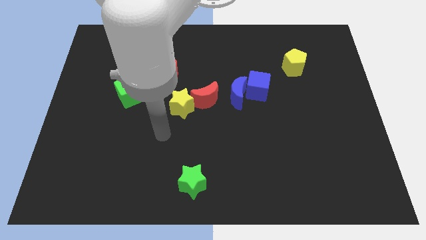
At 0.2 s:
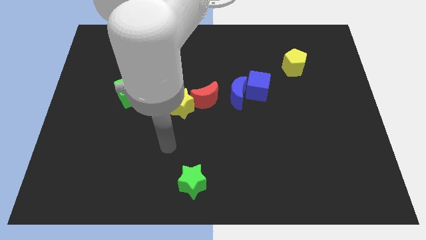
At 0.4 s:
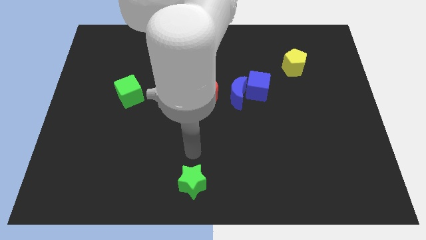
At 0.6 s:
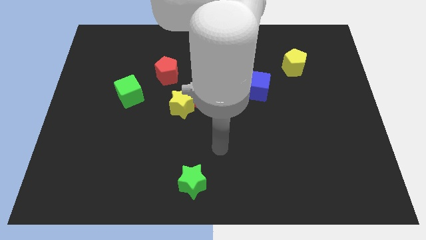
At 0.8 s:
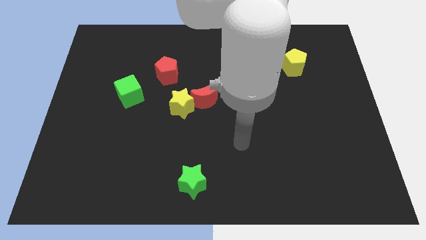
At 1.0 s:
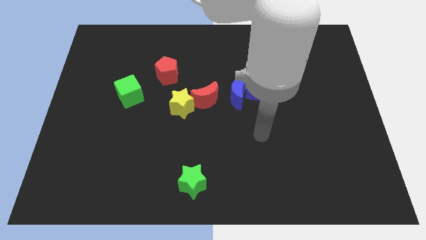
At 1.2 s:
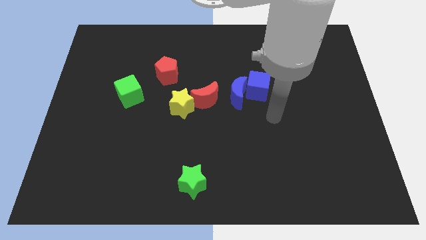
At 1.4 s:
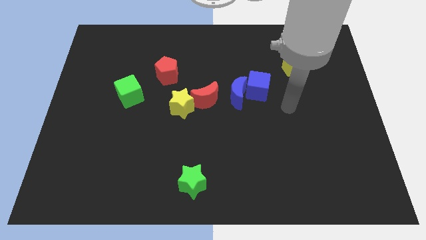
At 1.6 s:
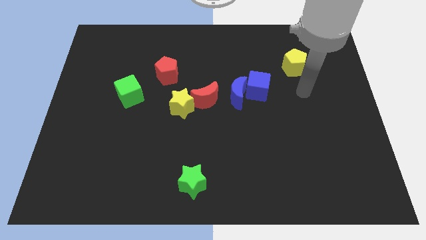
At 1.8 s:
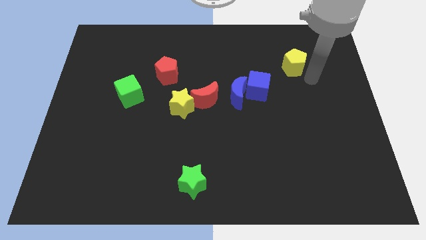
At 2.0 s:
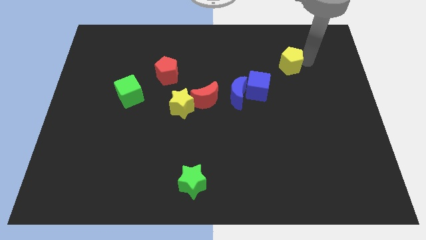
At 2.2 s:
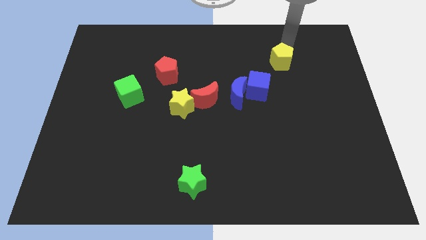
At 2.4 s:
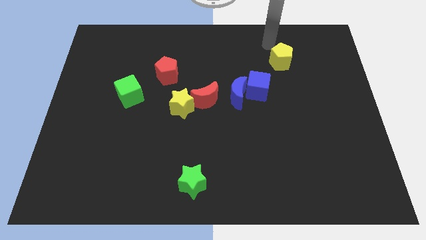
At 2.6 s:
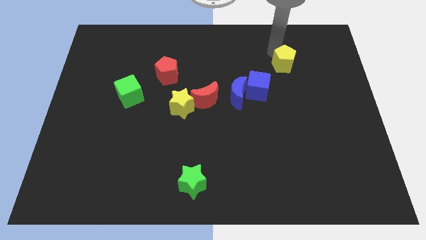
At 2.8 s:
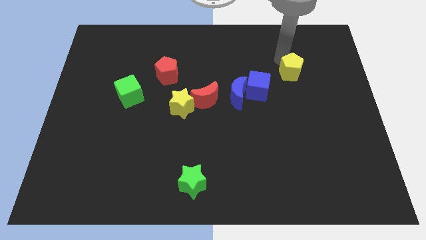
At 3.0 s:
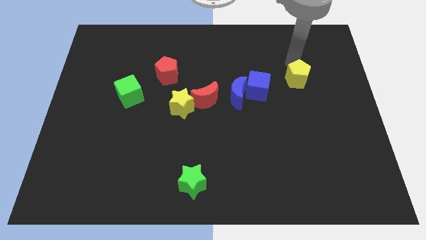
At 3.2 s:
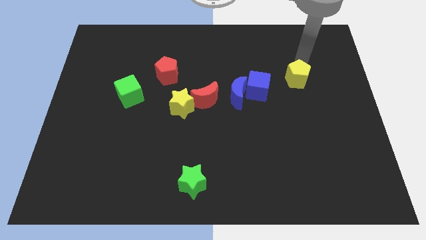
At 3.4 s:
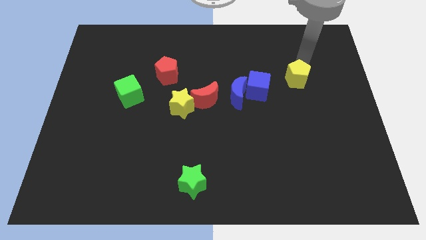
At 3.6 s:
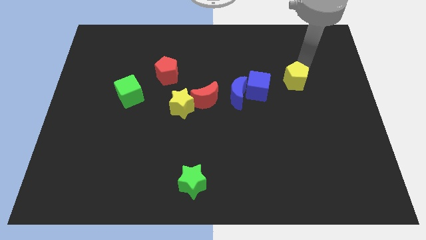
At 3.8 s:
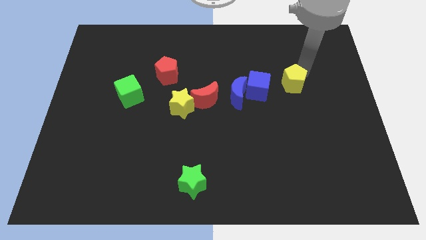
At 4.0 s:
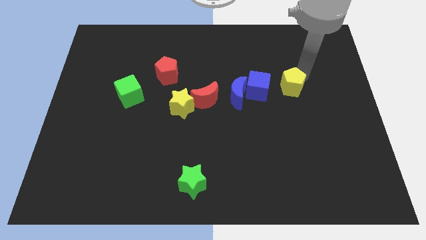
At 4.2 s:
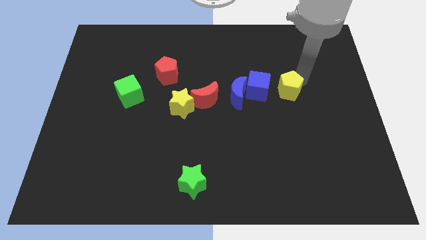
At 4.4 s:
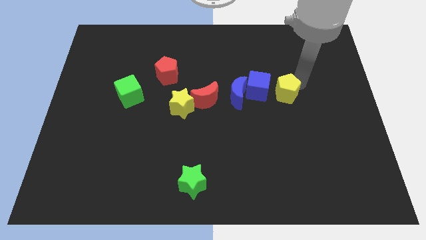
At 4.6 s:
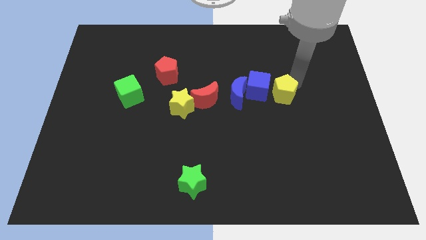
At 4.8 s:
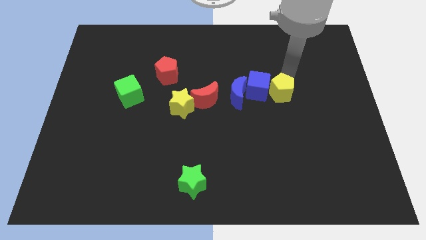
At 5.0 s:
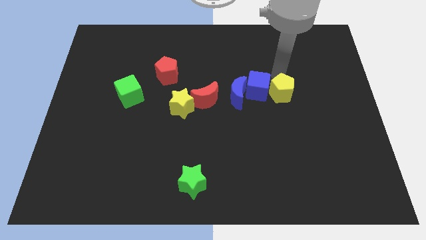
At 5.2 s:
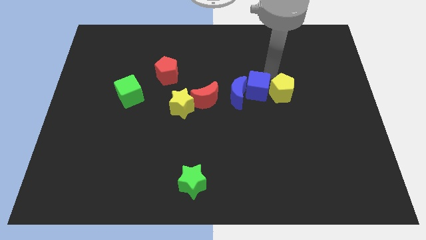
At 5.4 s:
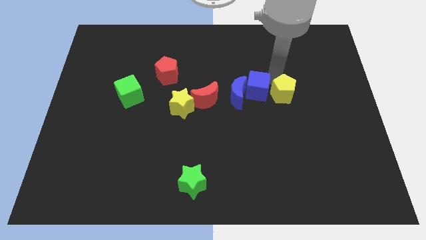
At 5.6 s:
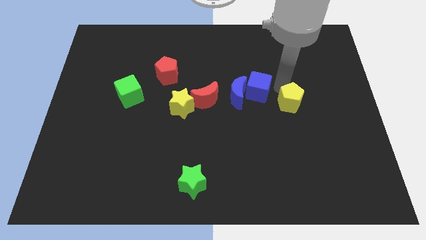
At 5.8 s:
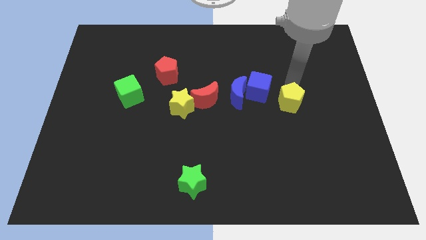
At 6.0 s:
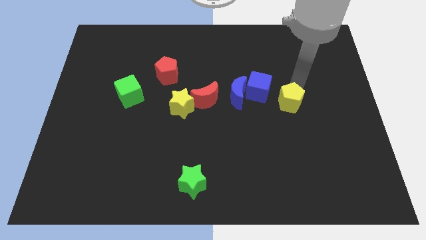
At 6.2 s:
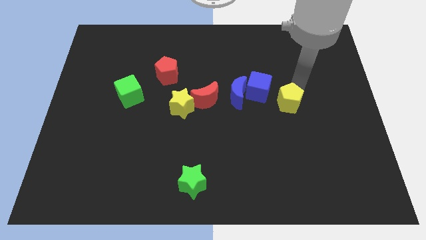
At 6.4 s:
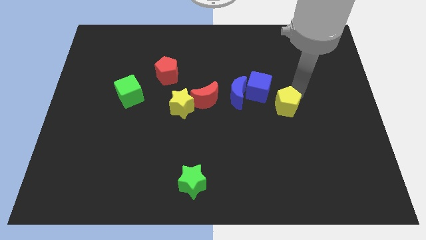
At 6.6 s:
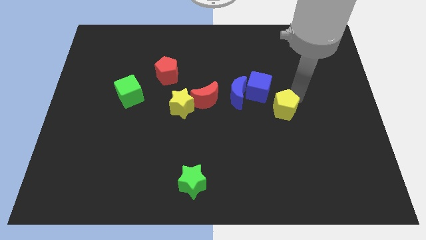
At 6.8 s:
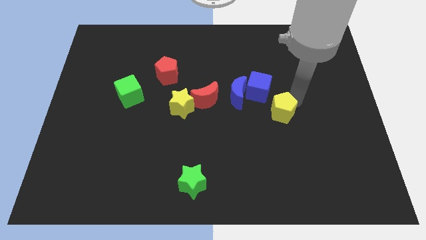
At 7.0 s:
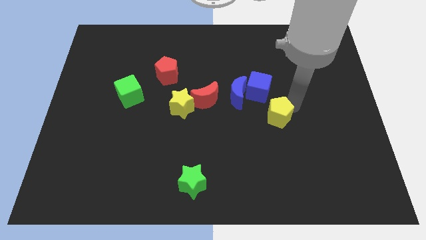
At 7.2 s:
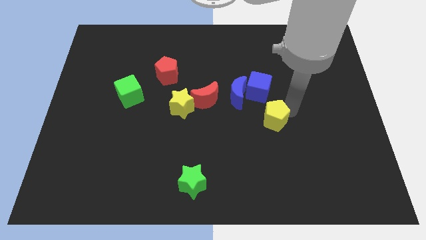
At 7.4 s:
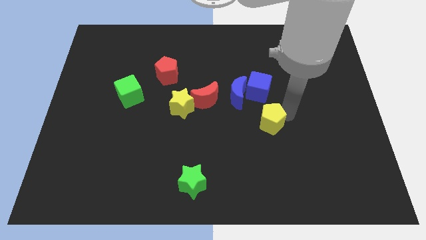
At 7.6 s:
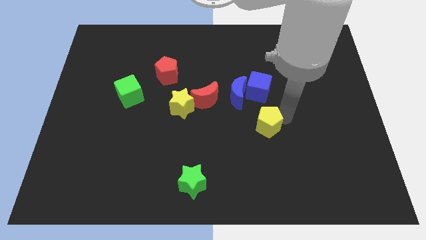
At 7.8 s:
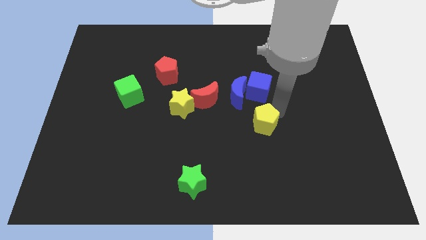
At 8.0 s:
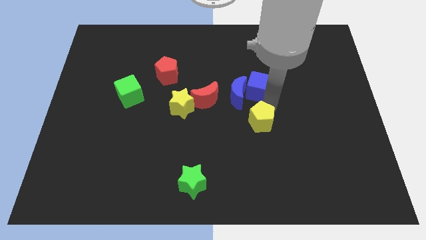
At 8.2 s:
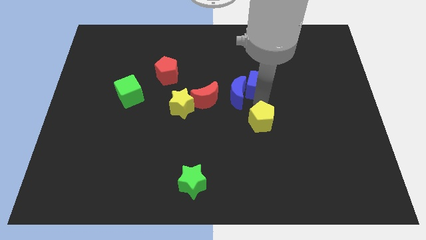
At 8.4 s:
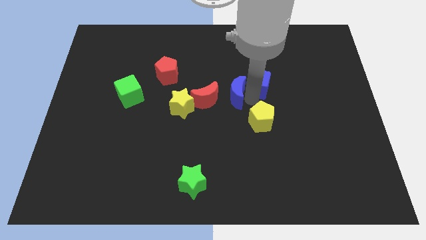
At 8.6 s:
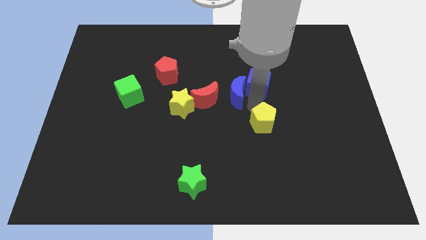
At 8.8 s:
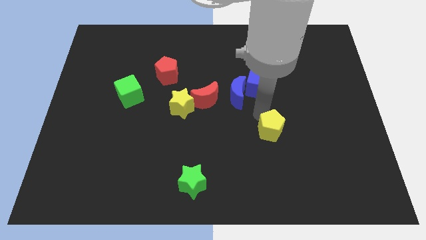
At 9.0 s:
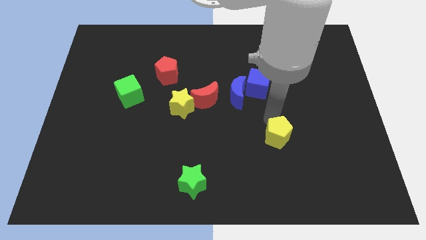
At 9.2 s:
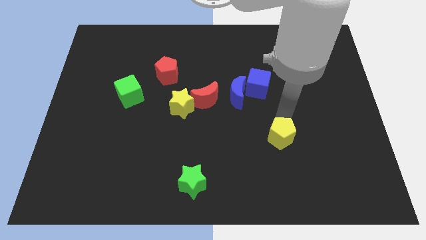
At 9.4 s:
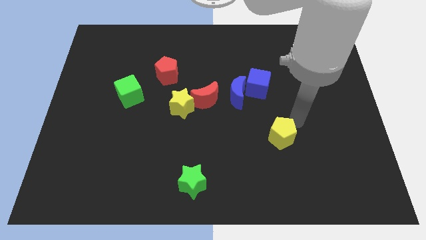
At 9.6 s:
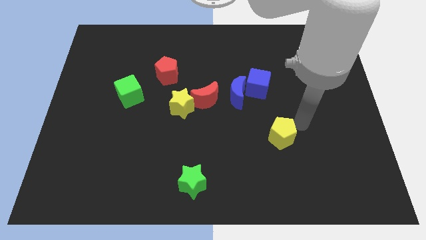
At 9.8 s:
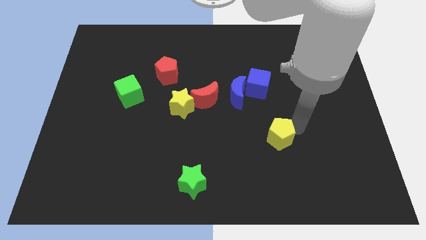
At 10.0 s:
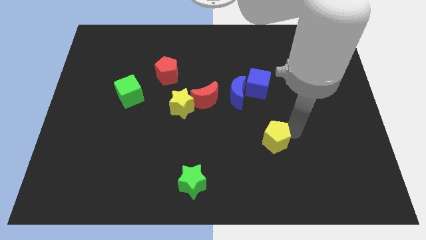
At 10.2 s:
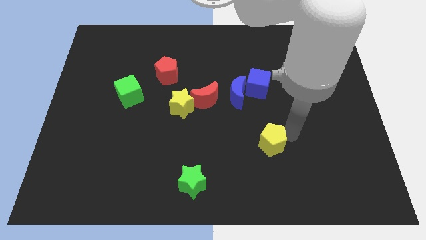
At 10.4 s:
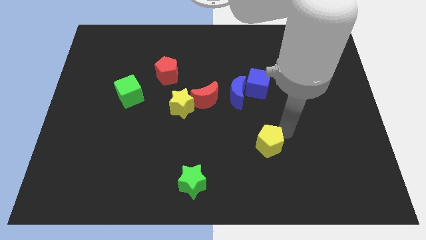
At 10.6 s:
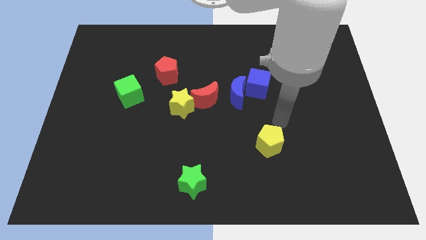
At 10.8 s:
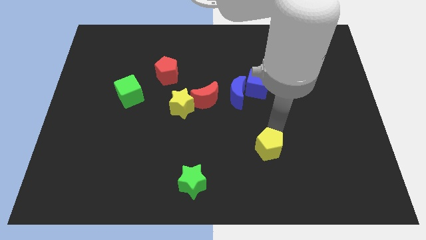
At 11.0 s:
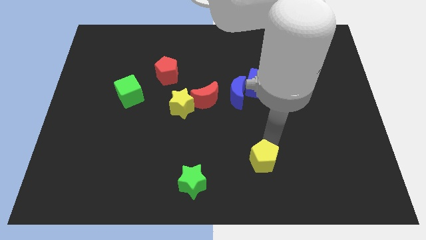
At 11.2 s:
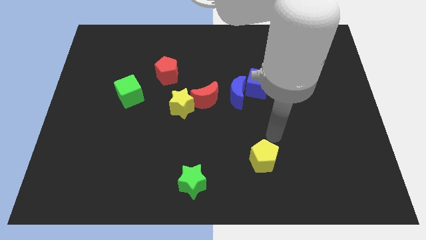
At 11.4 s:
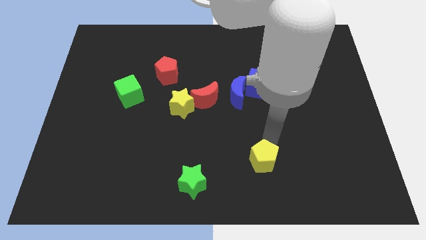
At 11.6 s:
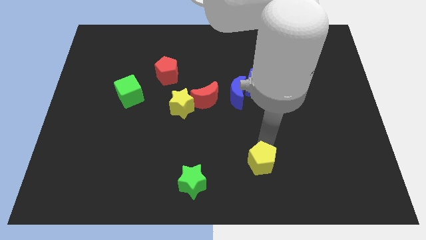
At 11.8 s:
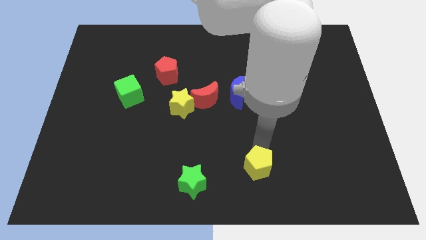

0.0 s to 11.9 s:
move the yellow pentagon to the bottom

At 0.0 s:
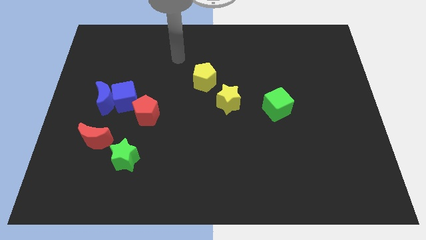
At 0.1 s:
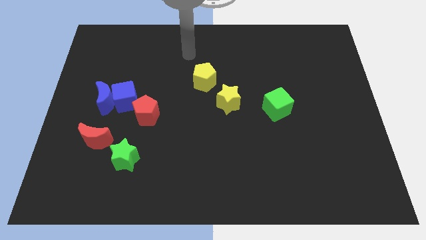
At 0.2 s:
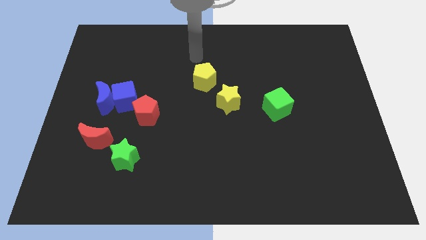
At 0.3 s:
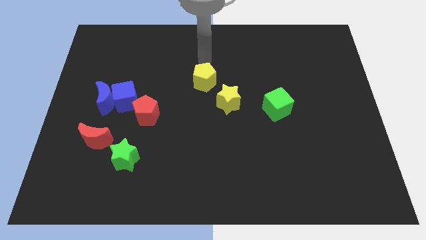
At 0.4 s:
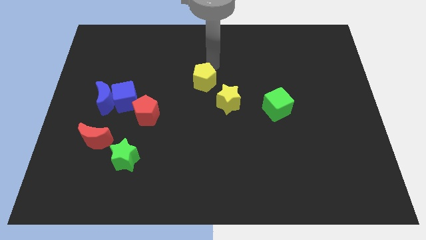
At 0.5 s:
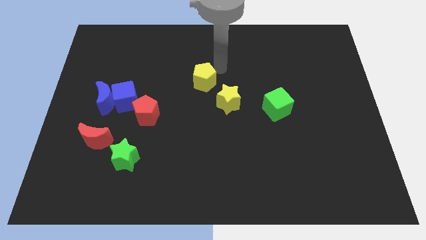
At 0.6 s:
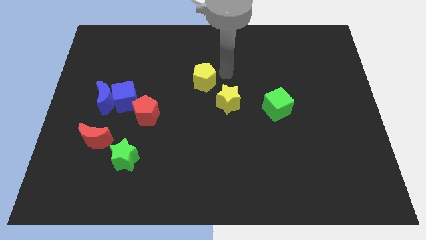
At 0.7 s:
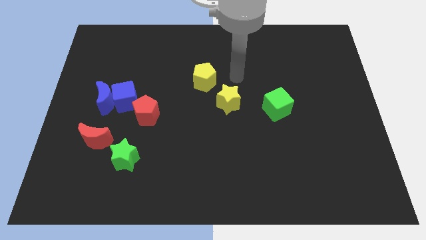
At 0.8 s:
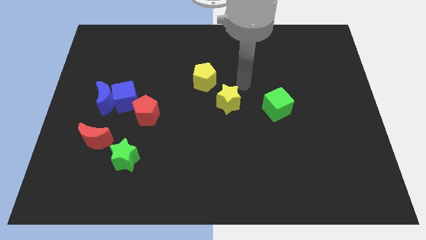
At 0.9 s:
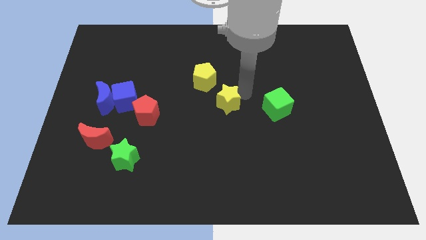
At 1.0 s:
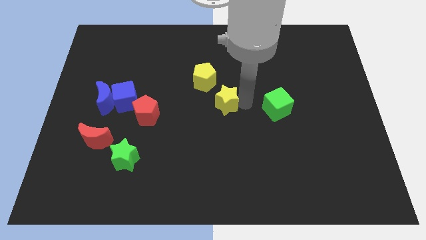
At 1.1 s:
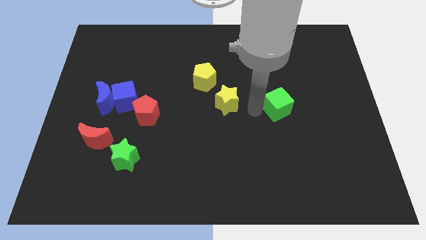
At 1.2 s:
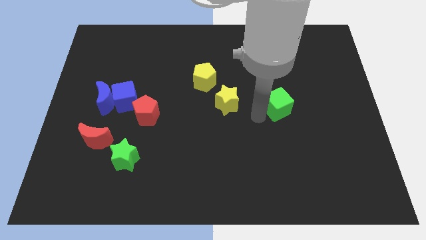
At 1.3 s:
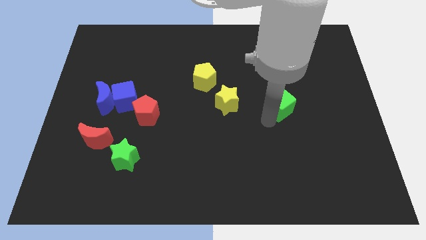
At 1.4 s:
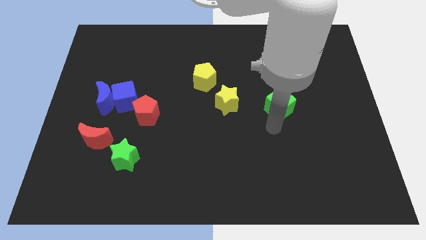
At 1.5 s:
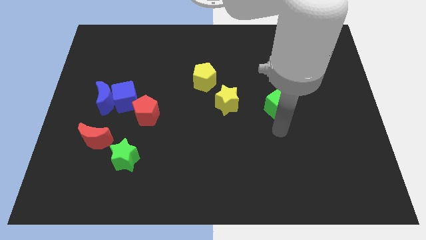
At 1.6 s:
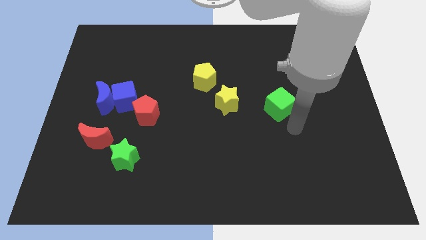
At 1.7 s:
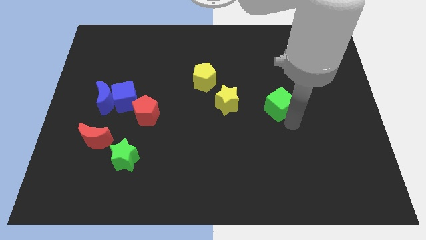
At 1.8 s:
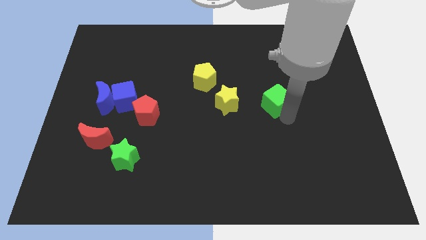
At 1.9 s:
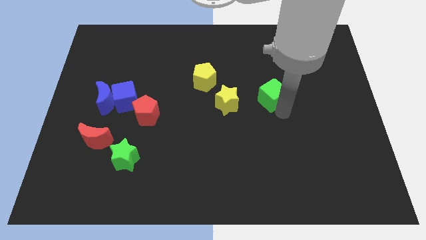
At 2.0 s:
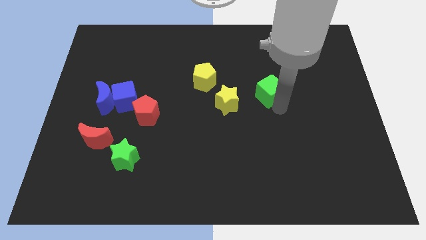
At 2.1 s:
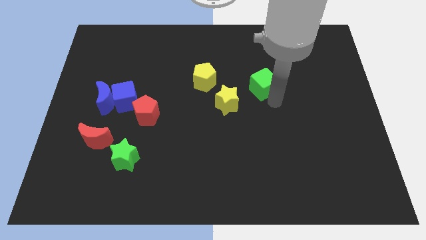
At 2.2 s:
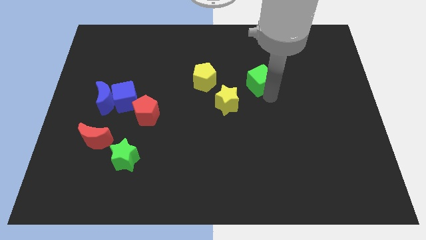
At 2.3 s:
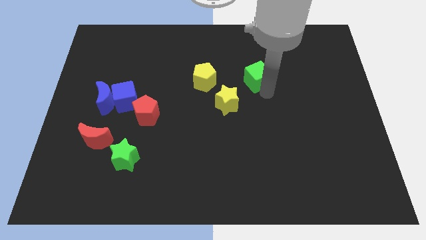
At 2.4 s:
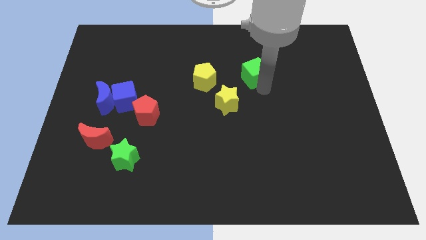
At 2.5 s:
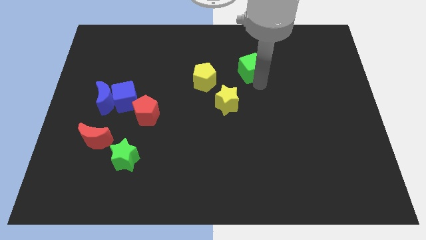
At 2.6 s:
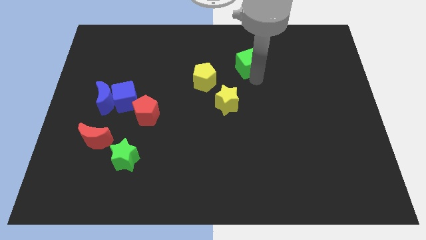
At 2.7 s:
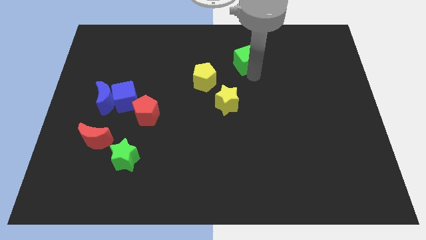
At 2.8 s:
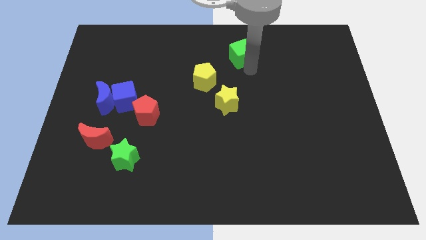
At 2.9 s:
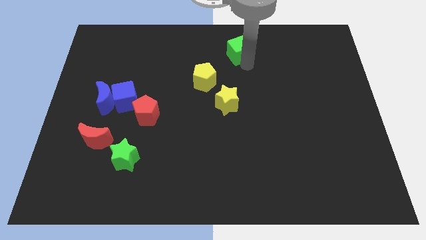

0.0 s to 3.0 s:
push the green cube to the top side
